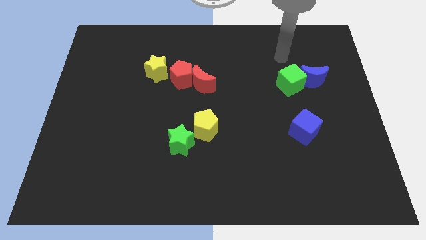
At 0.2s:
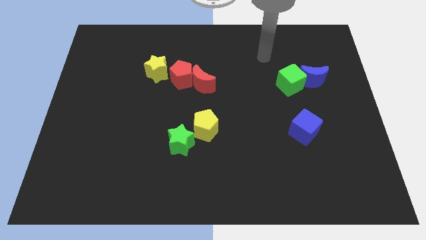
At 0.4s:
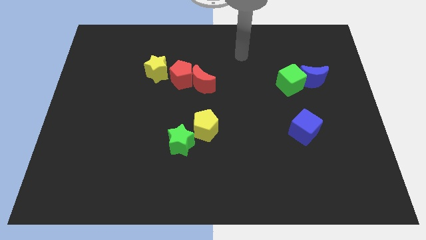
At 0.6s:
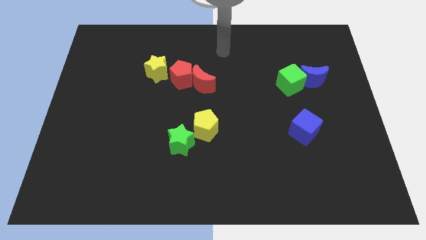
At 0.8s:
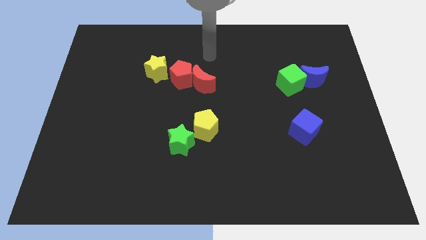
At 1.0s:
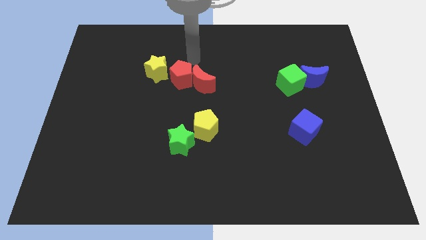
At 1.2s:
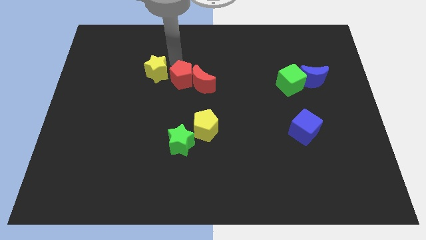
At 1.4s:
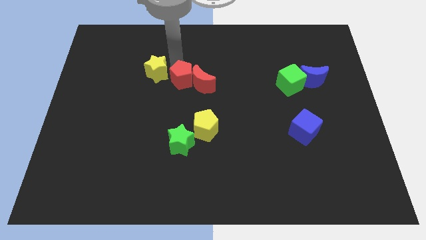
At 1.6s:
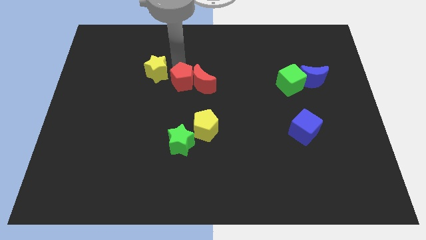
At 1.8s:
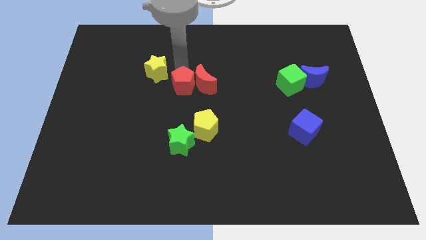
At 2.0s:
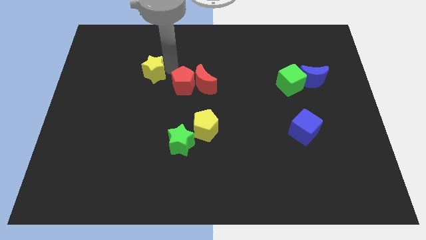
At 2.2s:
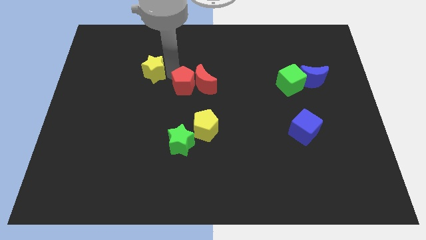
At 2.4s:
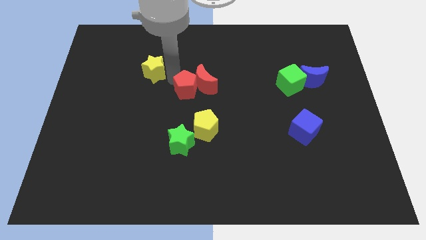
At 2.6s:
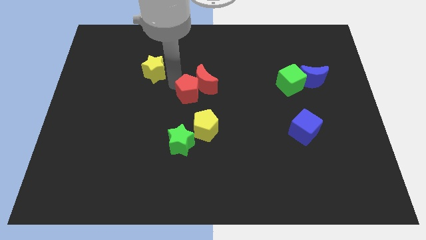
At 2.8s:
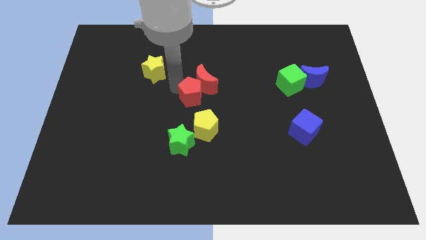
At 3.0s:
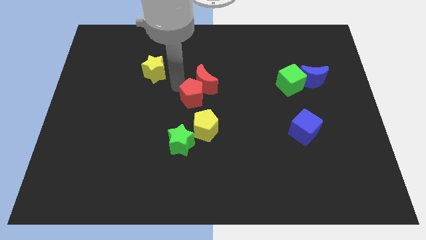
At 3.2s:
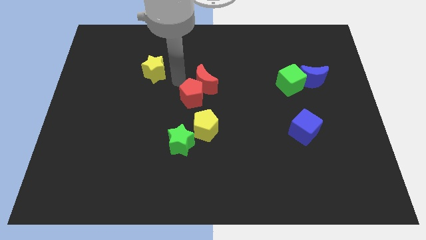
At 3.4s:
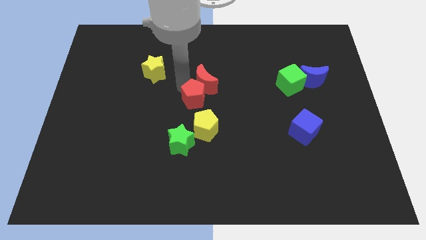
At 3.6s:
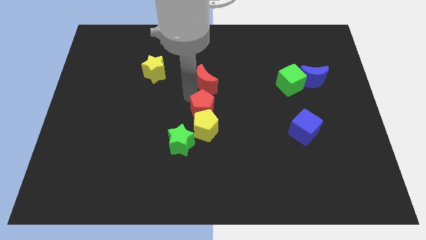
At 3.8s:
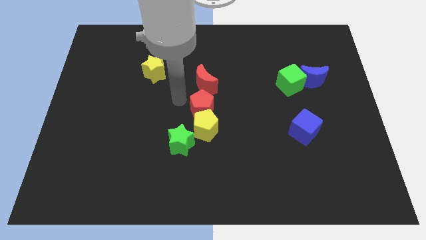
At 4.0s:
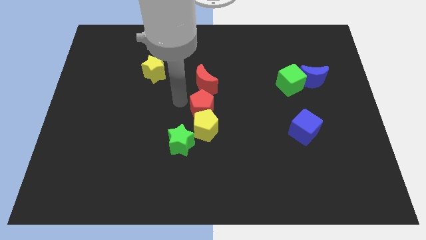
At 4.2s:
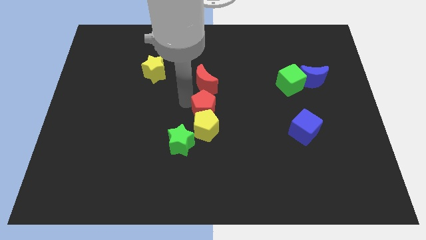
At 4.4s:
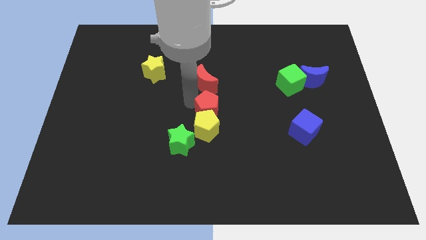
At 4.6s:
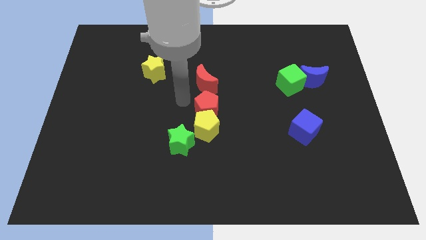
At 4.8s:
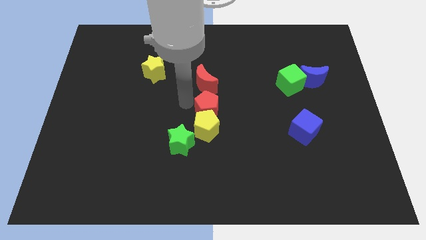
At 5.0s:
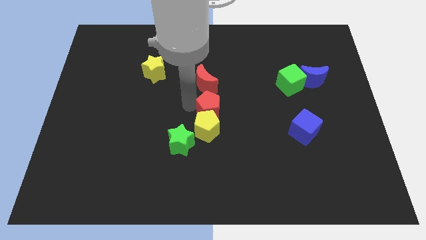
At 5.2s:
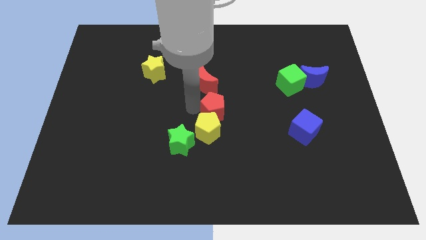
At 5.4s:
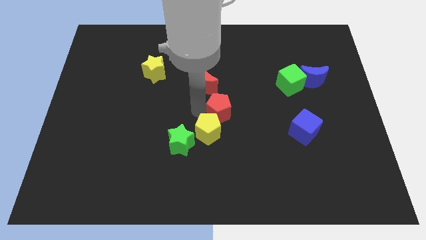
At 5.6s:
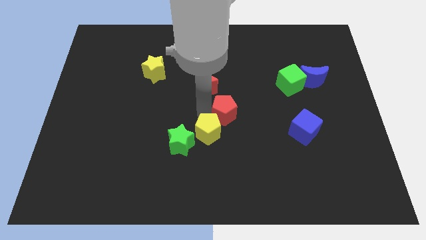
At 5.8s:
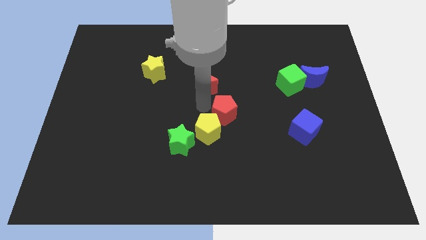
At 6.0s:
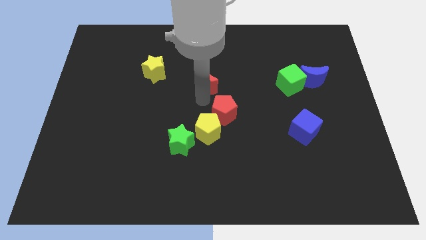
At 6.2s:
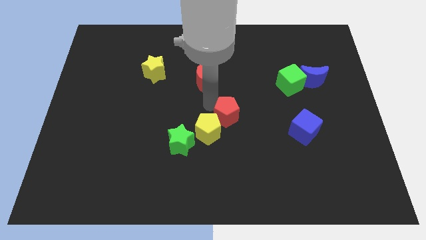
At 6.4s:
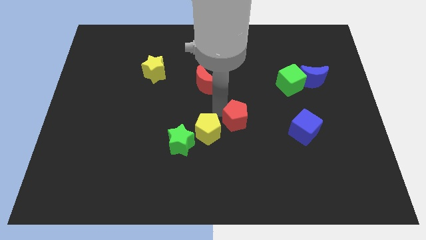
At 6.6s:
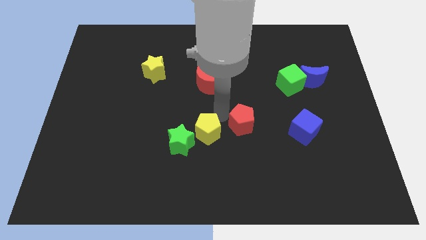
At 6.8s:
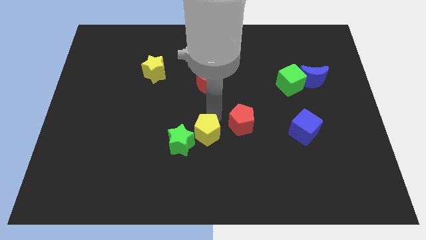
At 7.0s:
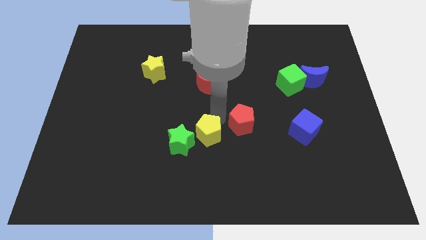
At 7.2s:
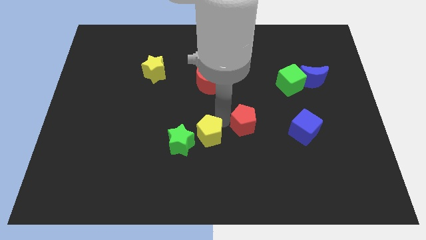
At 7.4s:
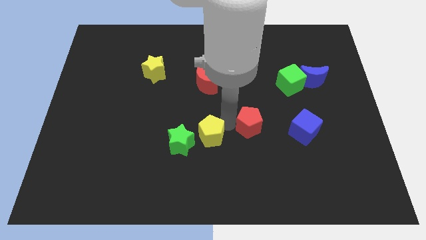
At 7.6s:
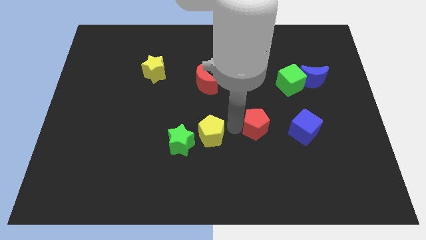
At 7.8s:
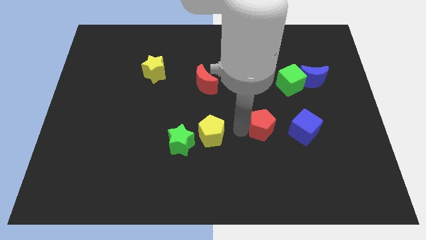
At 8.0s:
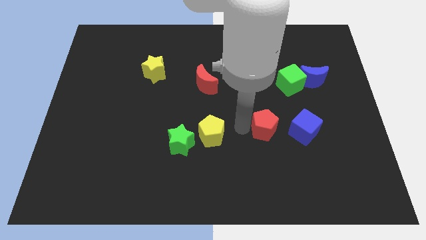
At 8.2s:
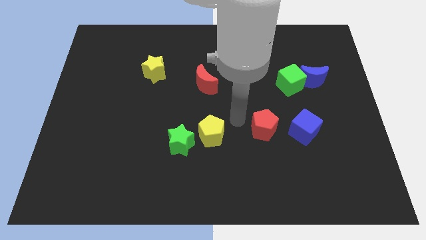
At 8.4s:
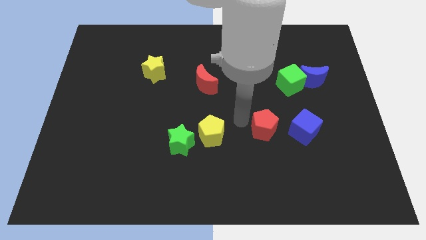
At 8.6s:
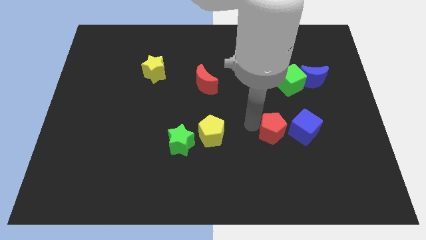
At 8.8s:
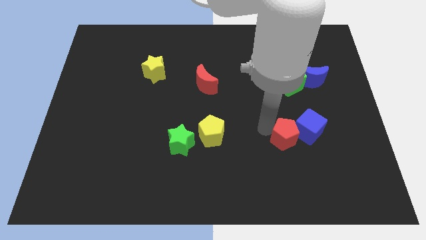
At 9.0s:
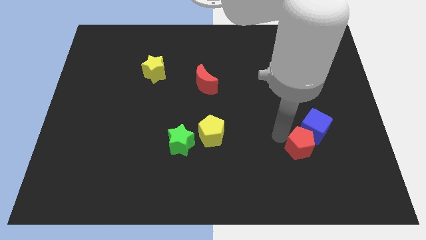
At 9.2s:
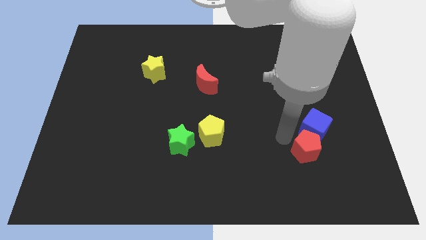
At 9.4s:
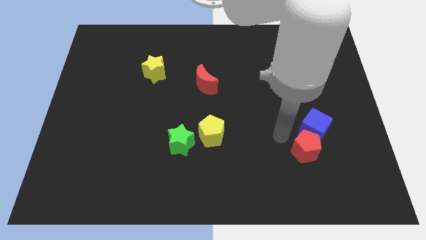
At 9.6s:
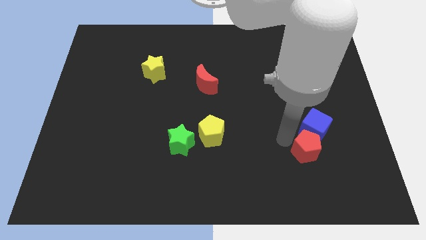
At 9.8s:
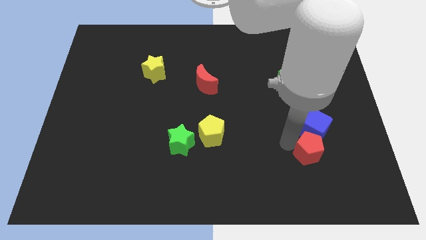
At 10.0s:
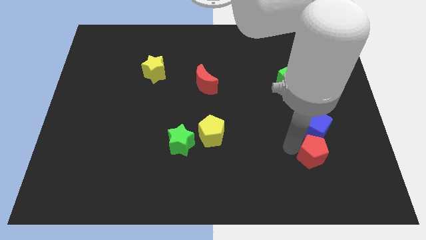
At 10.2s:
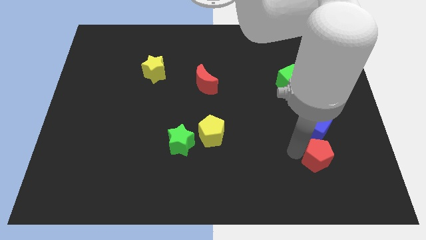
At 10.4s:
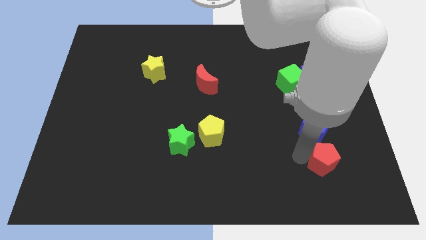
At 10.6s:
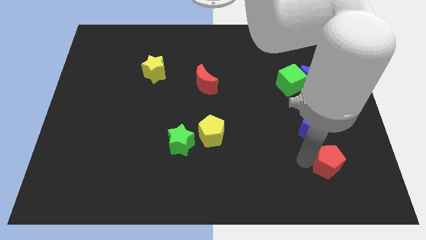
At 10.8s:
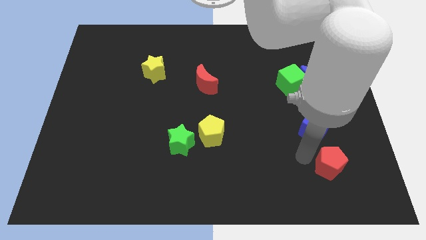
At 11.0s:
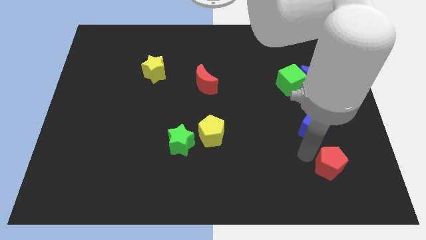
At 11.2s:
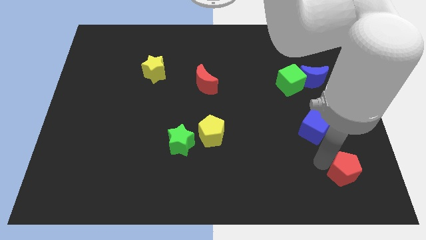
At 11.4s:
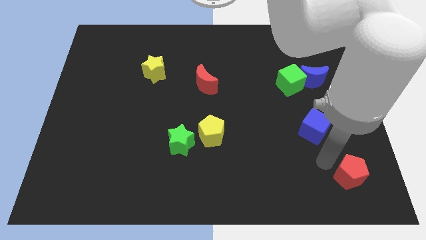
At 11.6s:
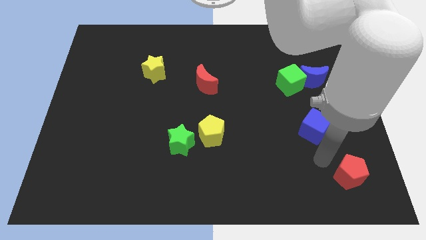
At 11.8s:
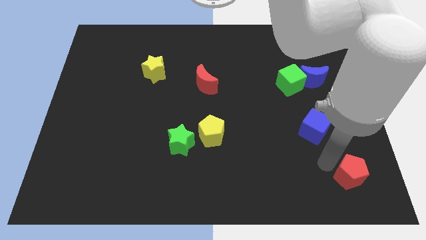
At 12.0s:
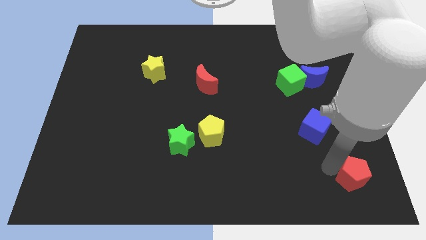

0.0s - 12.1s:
slide the red pentagon to the bottom right corner
